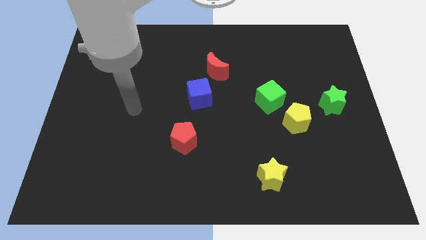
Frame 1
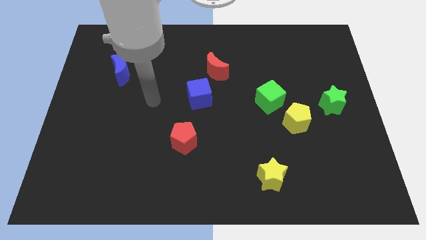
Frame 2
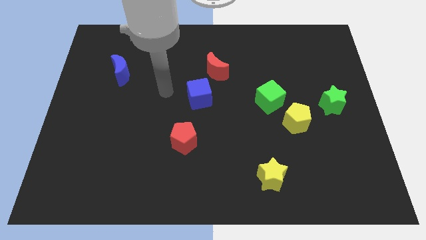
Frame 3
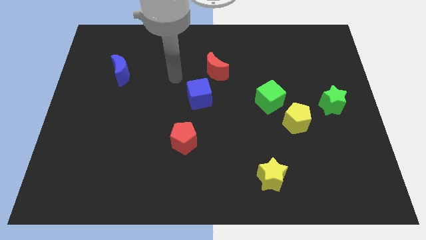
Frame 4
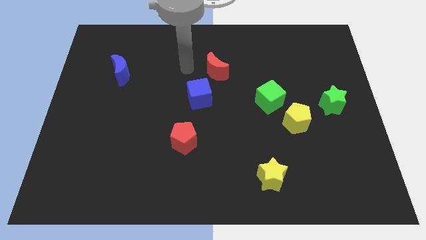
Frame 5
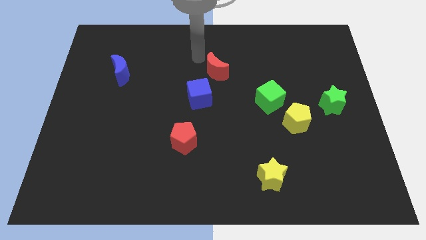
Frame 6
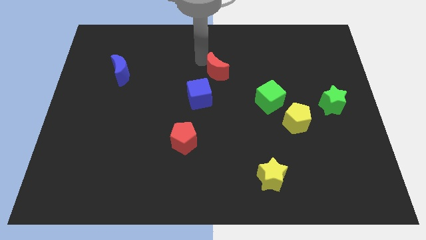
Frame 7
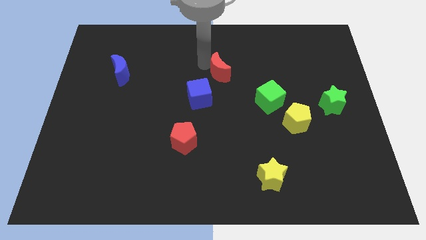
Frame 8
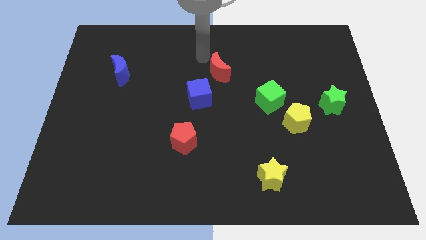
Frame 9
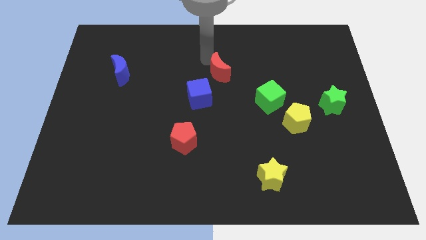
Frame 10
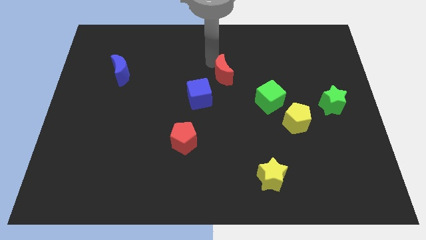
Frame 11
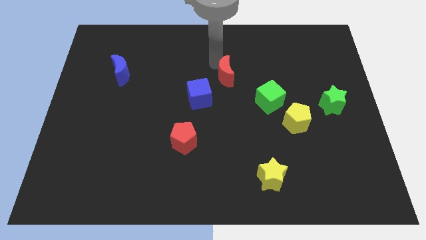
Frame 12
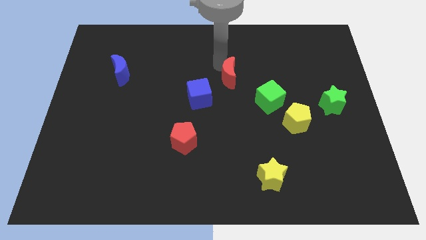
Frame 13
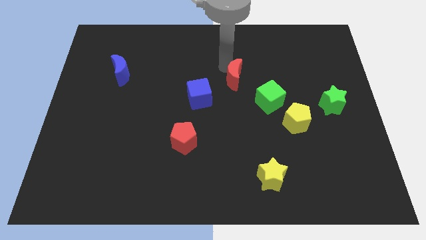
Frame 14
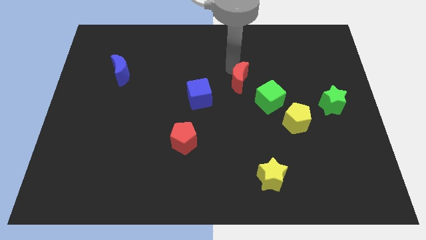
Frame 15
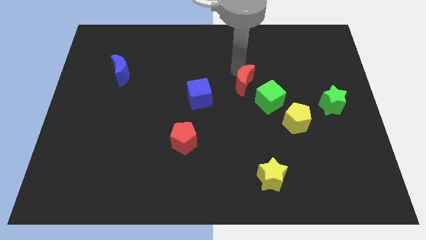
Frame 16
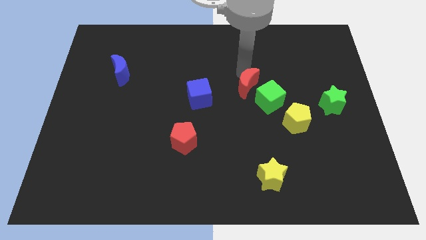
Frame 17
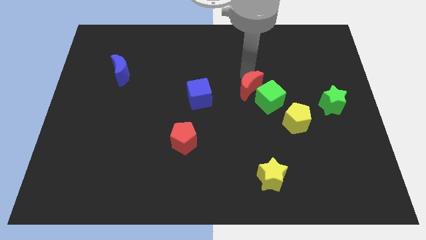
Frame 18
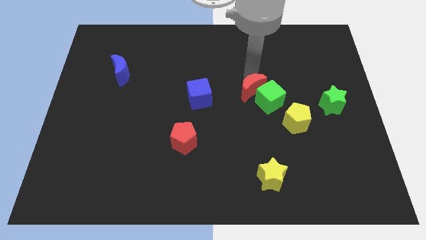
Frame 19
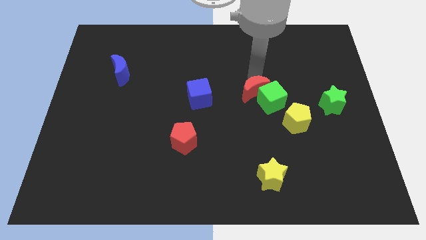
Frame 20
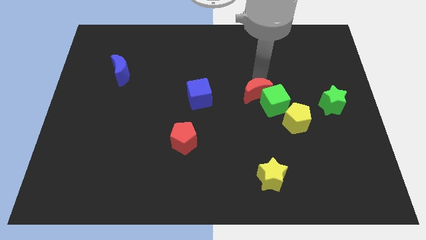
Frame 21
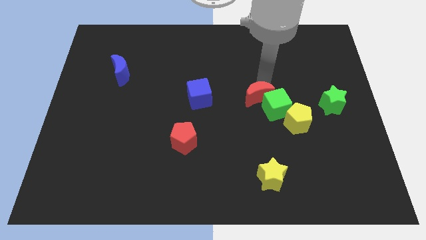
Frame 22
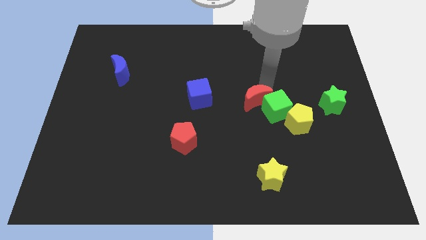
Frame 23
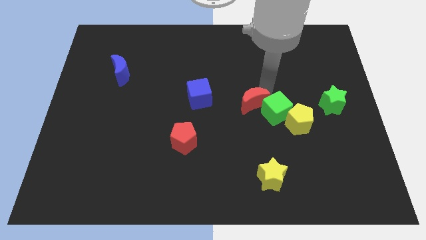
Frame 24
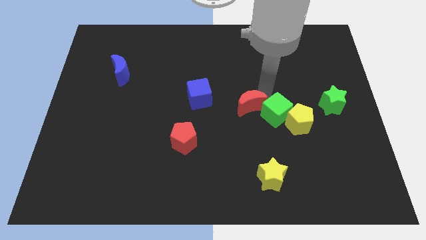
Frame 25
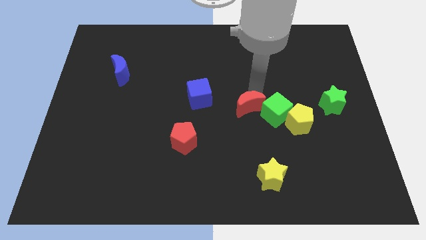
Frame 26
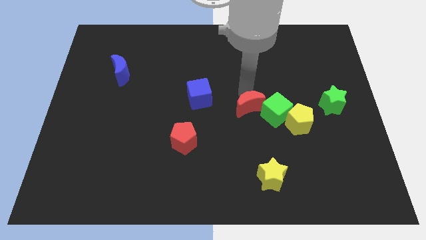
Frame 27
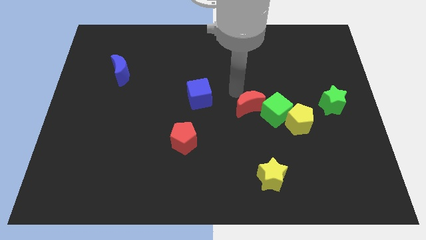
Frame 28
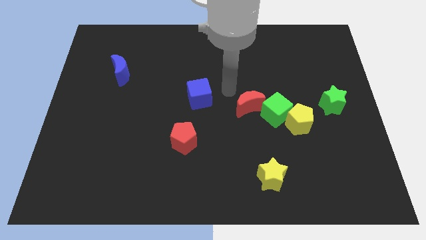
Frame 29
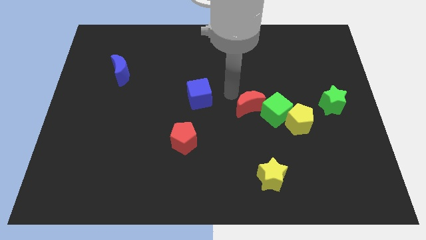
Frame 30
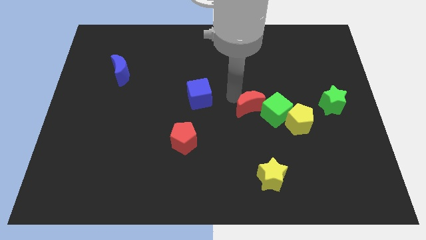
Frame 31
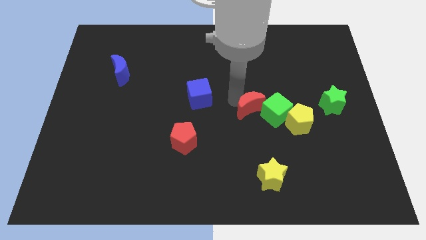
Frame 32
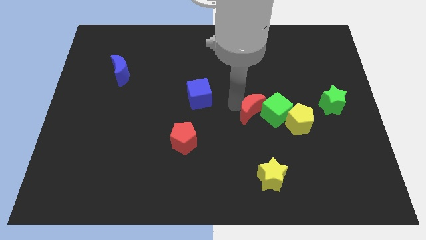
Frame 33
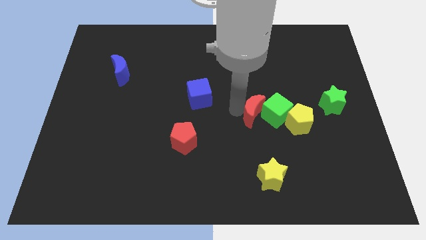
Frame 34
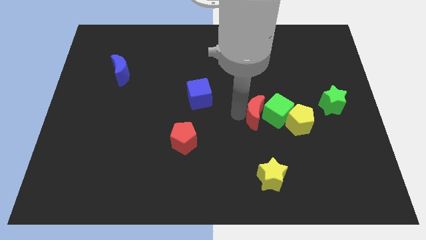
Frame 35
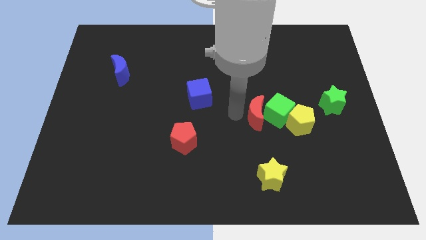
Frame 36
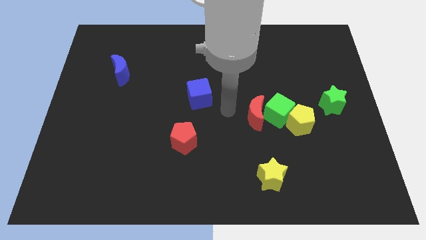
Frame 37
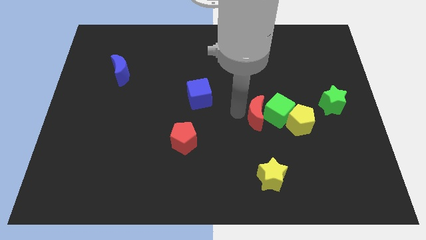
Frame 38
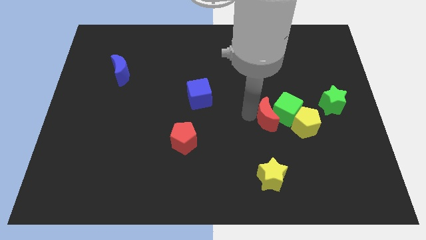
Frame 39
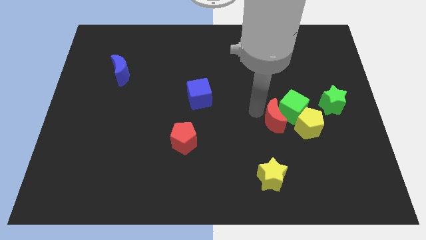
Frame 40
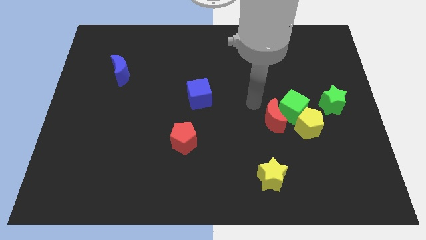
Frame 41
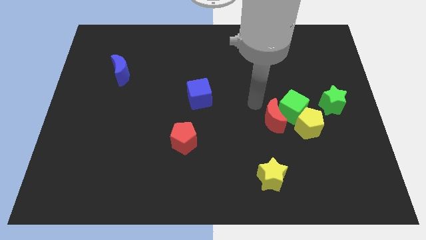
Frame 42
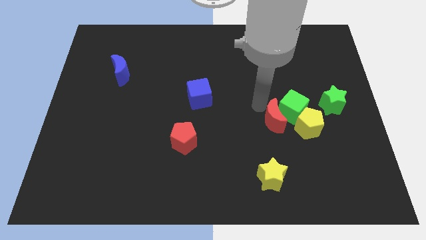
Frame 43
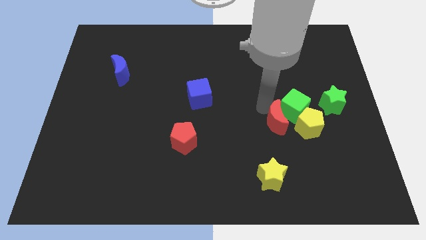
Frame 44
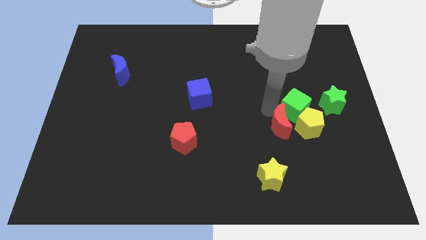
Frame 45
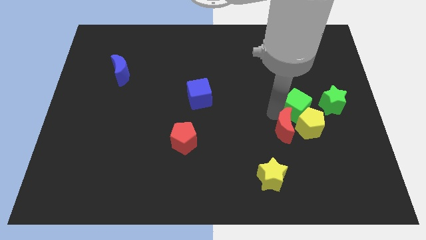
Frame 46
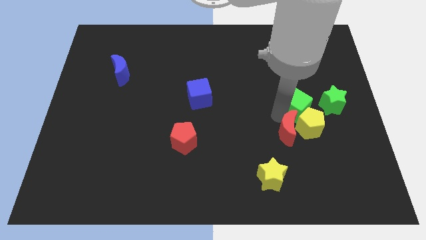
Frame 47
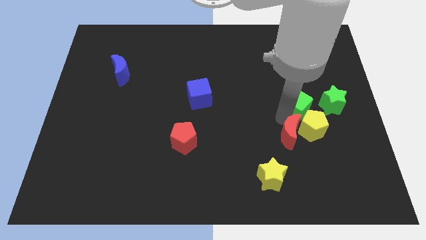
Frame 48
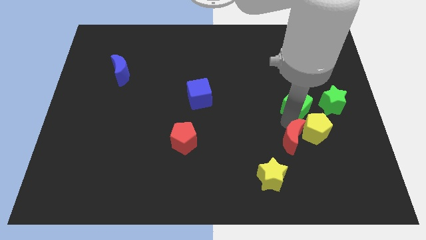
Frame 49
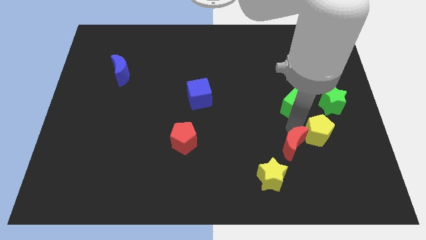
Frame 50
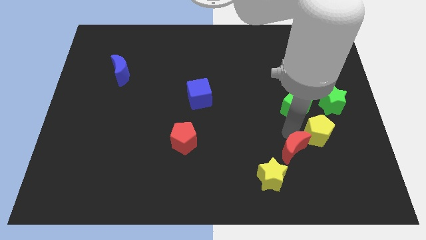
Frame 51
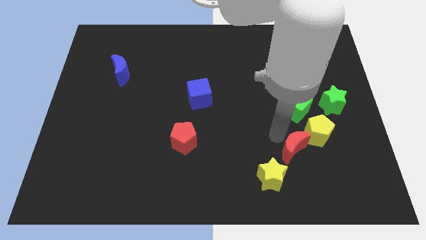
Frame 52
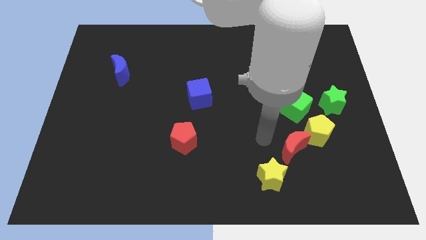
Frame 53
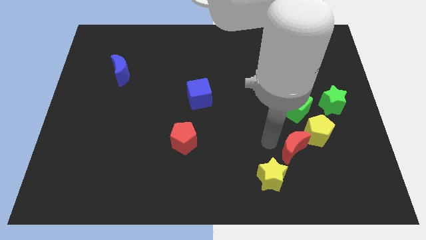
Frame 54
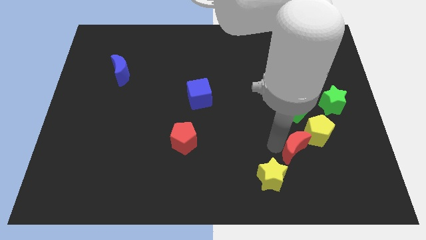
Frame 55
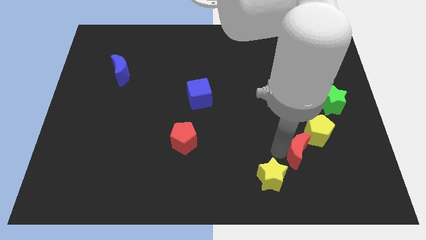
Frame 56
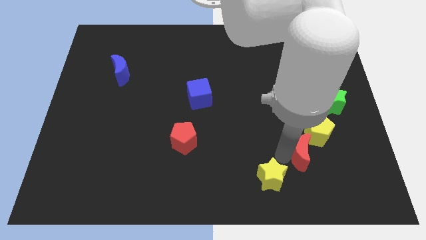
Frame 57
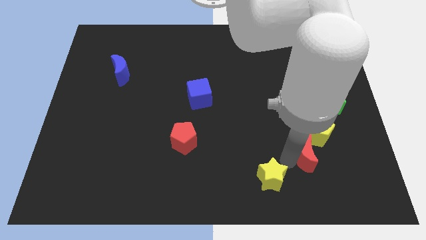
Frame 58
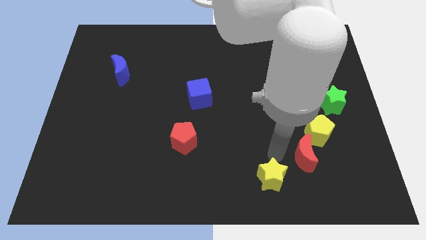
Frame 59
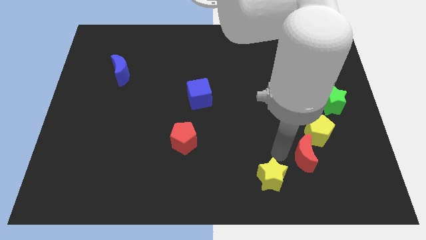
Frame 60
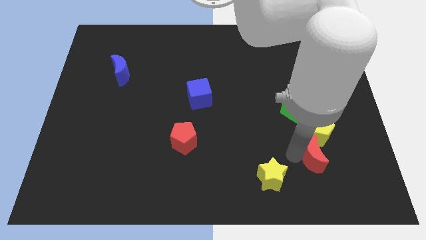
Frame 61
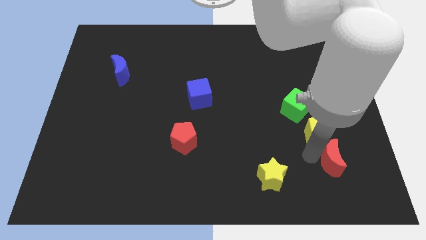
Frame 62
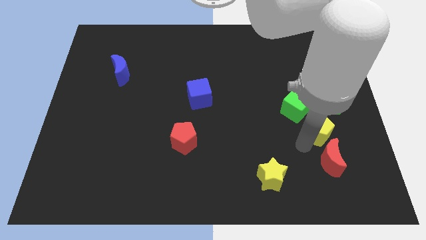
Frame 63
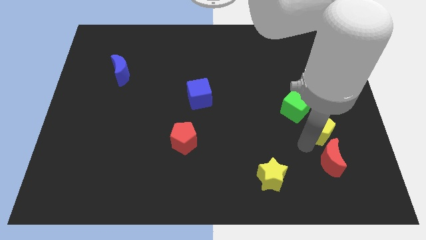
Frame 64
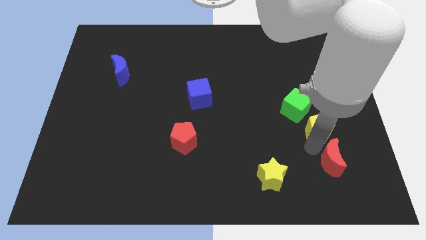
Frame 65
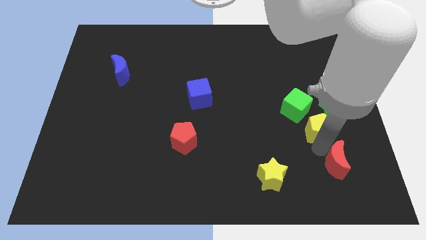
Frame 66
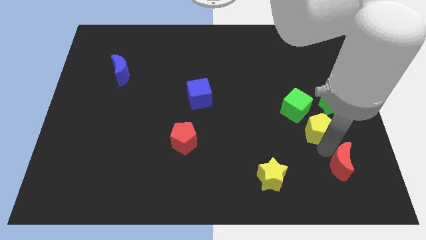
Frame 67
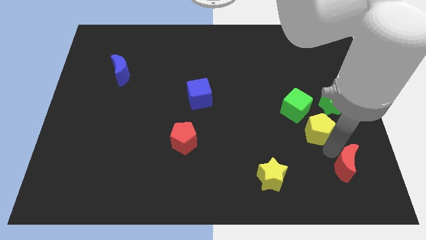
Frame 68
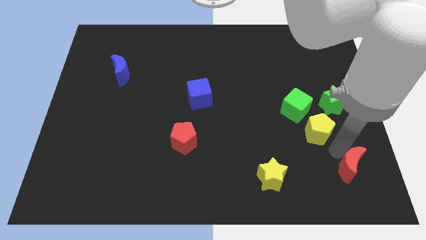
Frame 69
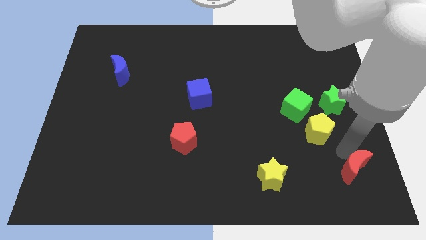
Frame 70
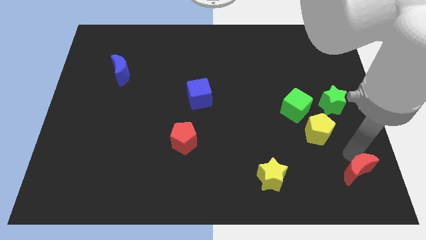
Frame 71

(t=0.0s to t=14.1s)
push the red moon to the bottom right of the board

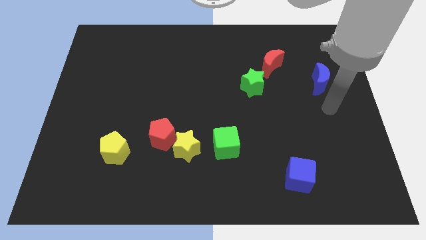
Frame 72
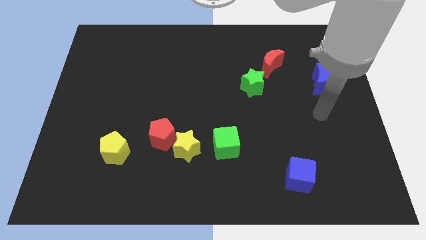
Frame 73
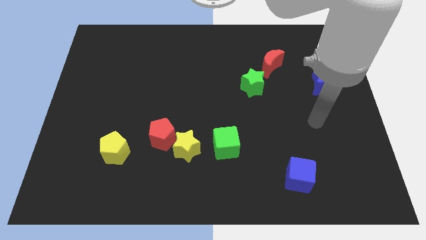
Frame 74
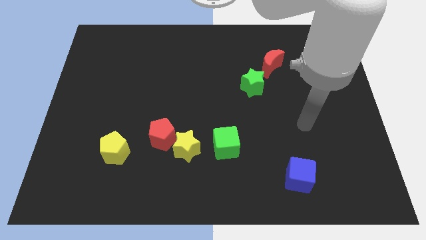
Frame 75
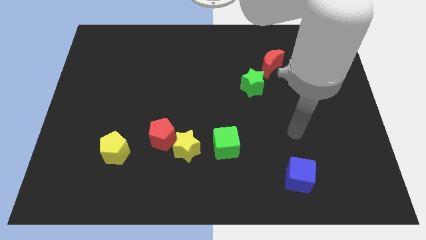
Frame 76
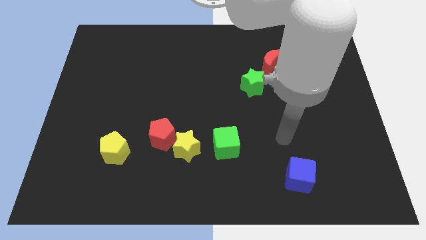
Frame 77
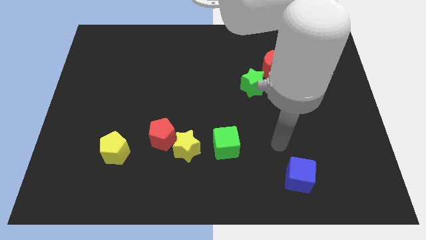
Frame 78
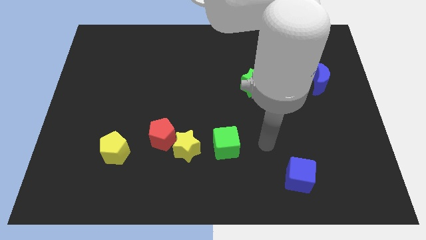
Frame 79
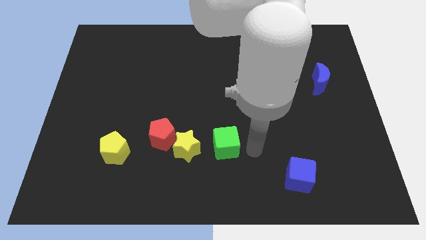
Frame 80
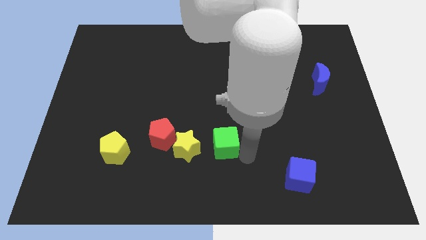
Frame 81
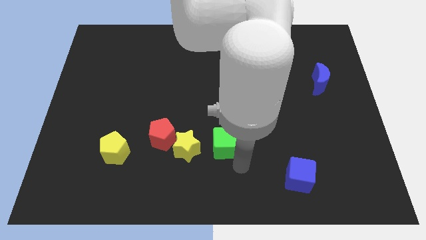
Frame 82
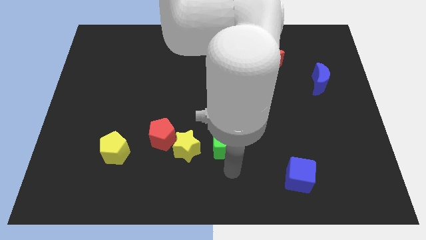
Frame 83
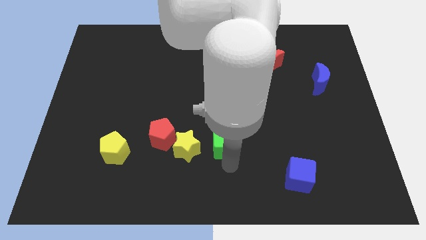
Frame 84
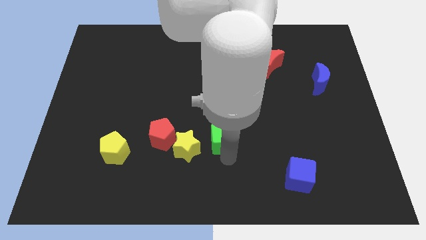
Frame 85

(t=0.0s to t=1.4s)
slide the green cube to the center of the board
